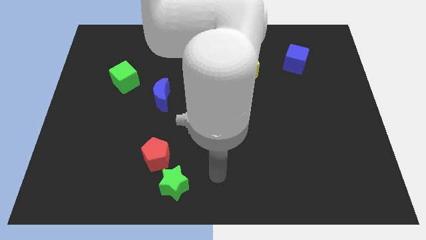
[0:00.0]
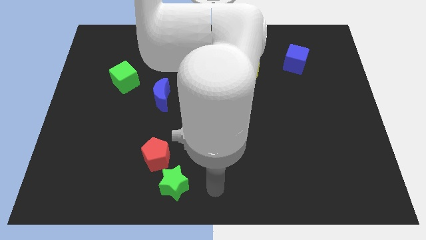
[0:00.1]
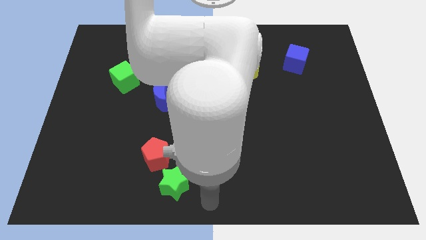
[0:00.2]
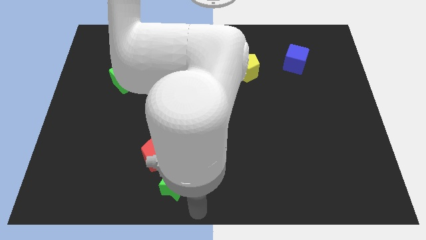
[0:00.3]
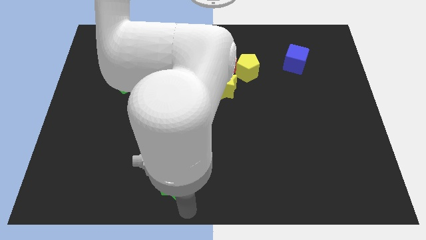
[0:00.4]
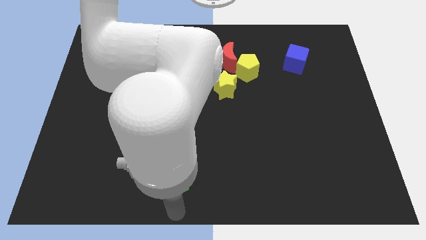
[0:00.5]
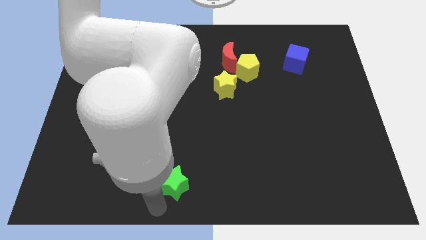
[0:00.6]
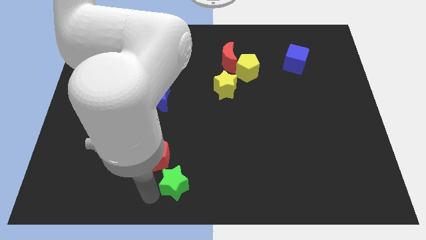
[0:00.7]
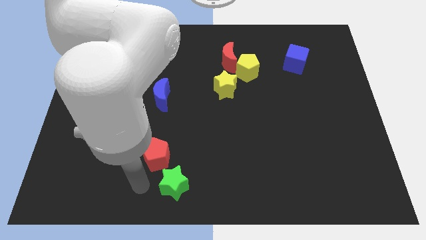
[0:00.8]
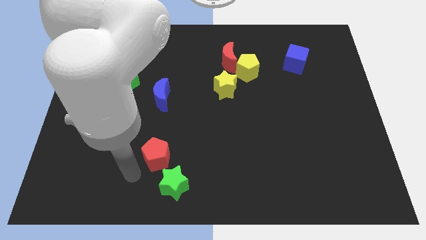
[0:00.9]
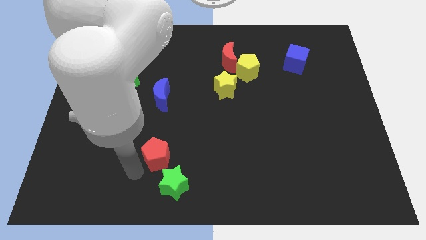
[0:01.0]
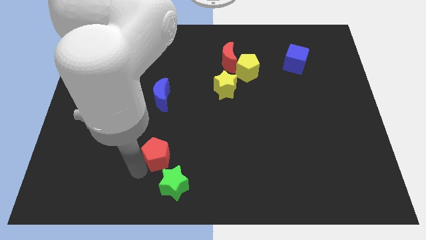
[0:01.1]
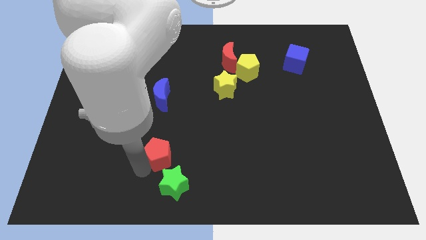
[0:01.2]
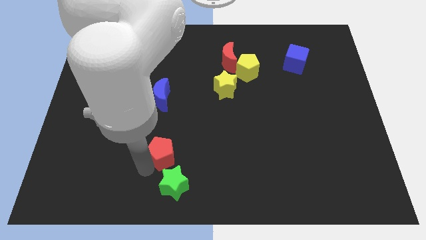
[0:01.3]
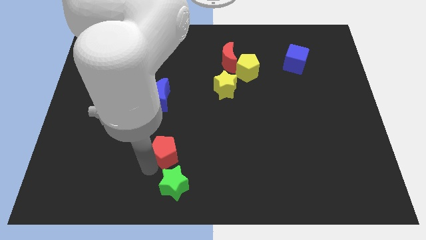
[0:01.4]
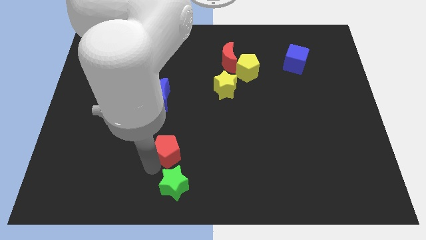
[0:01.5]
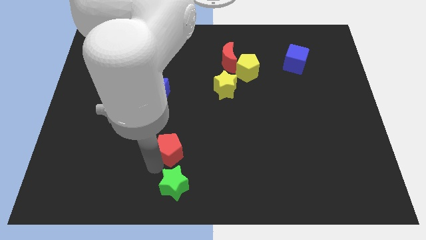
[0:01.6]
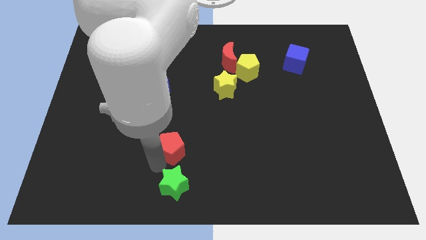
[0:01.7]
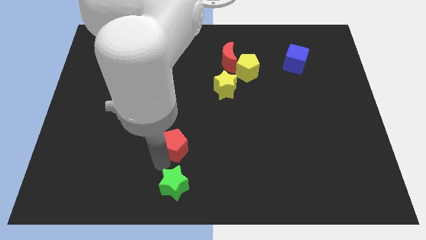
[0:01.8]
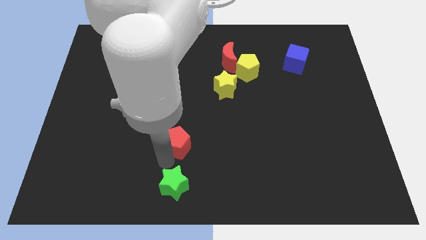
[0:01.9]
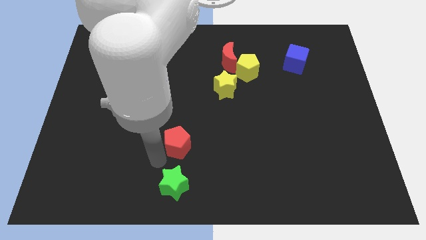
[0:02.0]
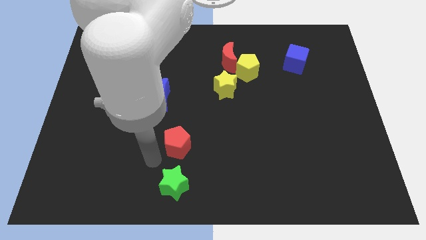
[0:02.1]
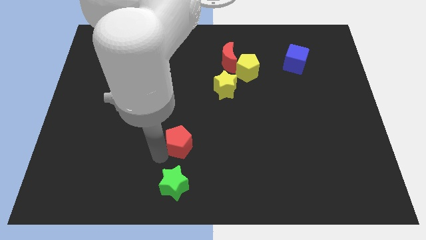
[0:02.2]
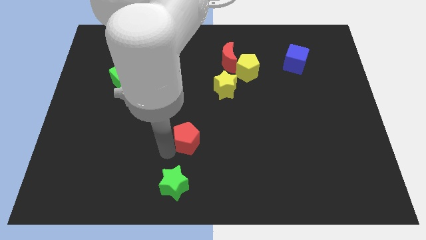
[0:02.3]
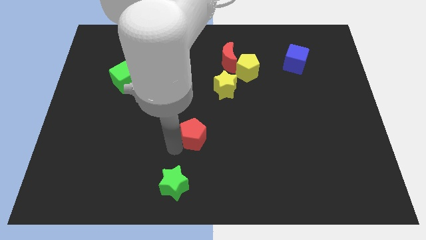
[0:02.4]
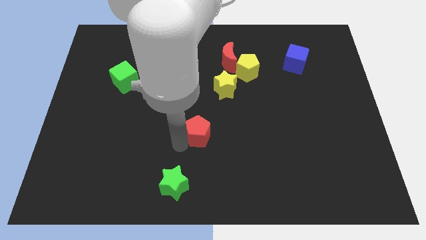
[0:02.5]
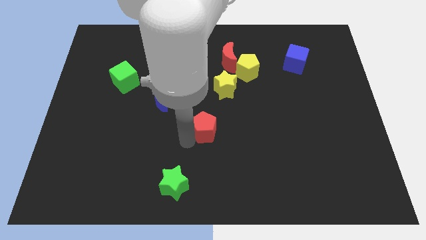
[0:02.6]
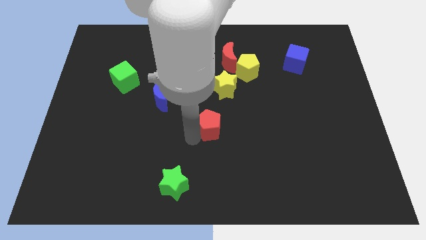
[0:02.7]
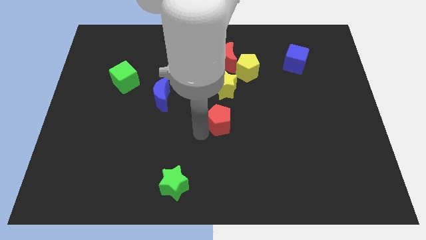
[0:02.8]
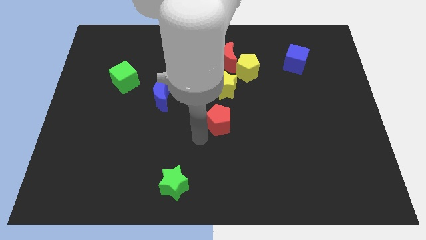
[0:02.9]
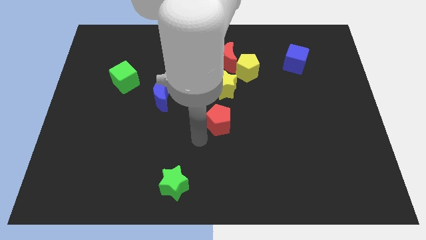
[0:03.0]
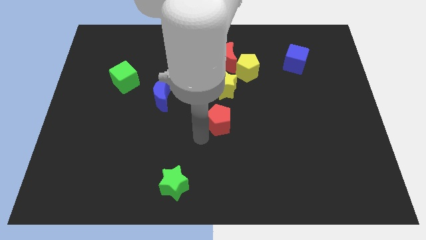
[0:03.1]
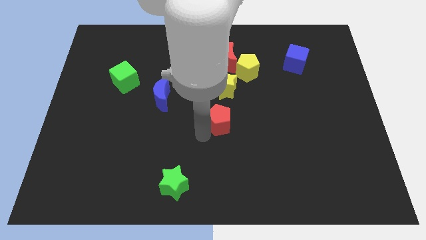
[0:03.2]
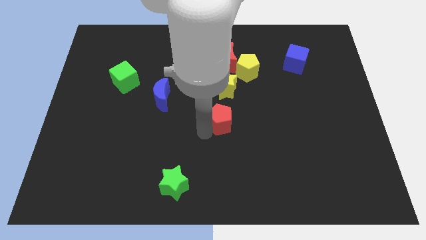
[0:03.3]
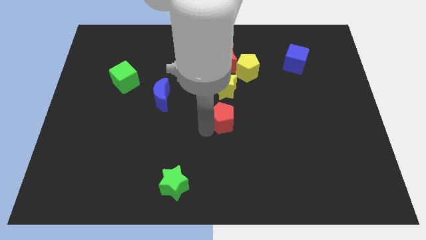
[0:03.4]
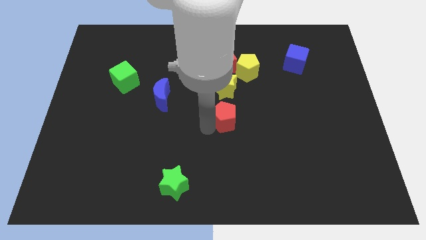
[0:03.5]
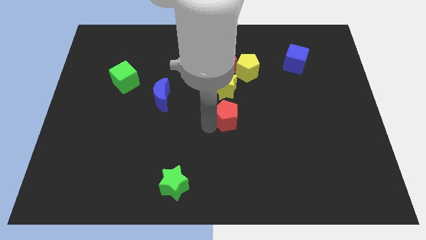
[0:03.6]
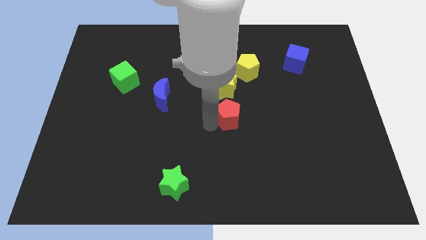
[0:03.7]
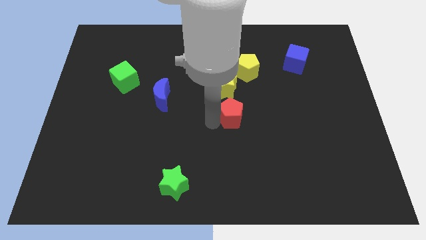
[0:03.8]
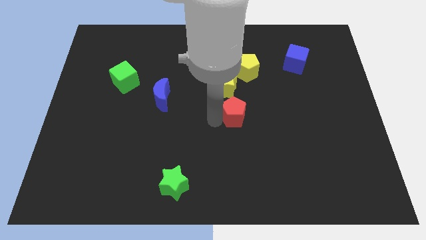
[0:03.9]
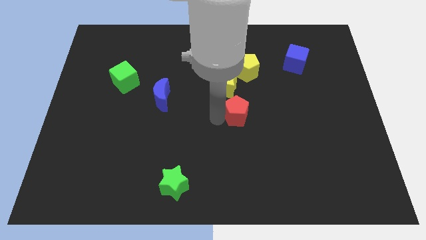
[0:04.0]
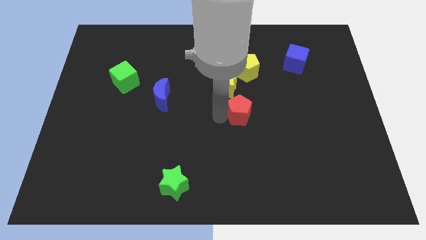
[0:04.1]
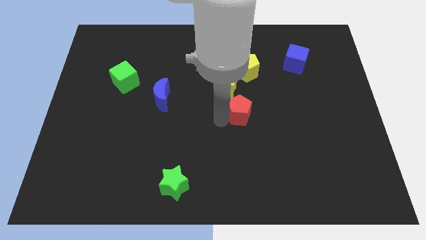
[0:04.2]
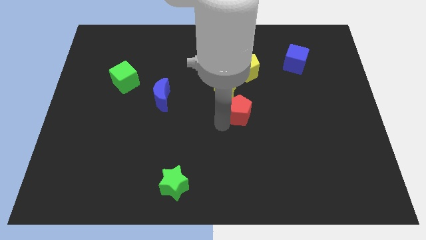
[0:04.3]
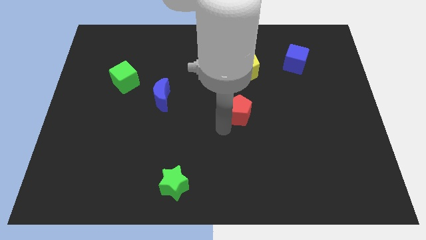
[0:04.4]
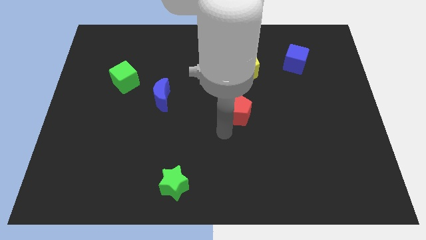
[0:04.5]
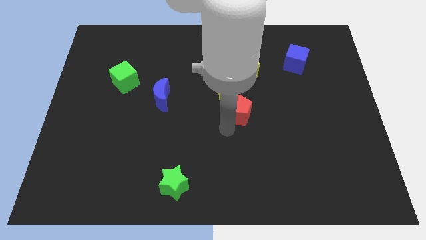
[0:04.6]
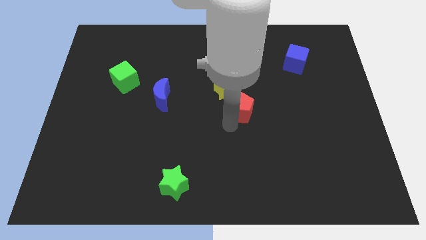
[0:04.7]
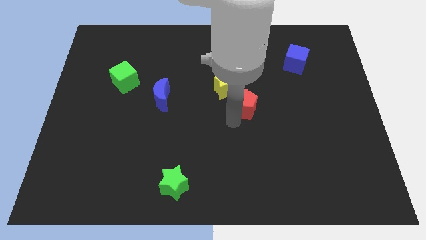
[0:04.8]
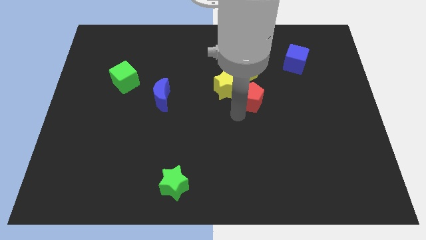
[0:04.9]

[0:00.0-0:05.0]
move the red pentagon right of the yellow star

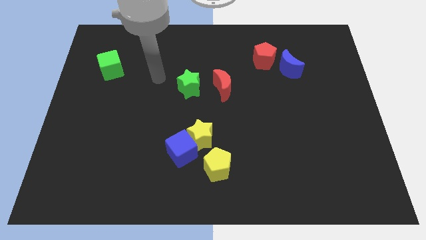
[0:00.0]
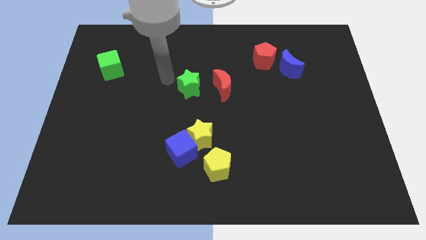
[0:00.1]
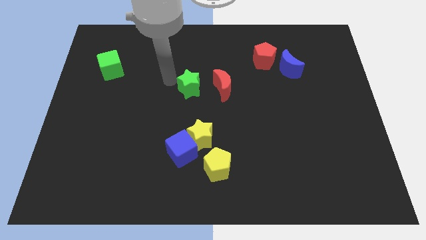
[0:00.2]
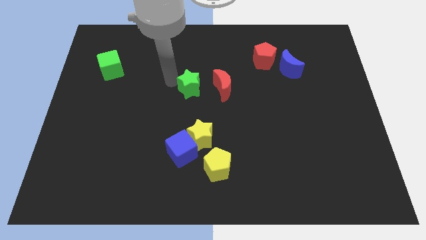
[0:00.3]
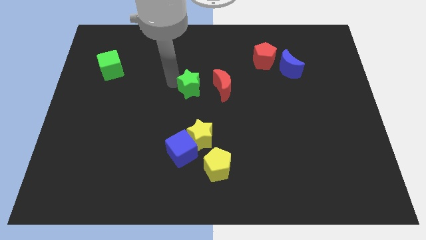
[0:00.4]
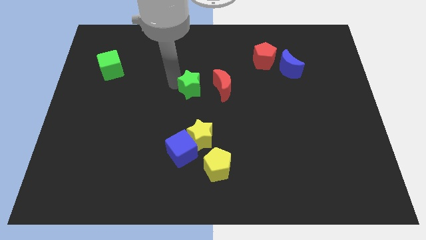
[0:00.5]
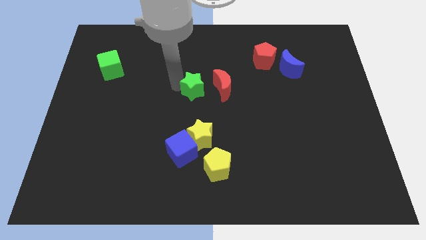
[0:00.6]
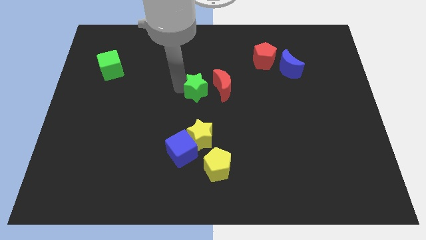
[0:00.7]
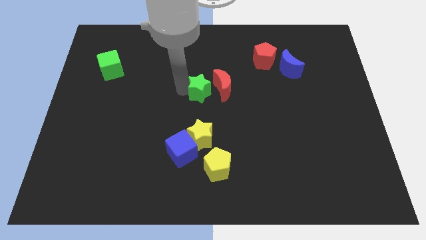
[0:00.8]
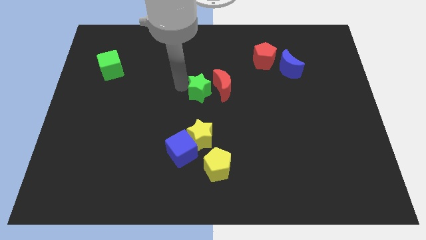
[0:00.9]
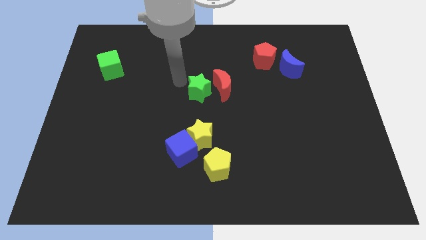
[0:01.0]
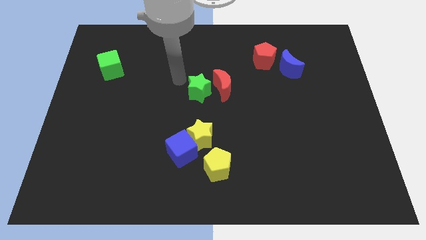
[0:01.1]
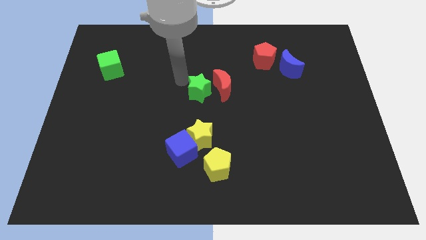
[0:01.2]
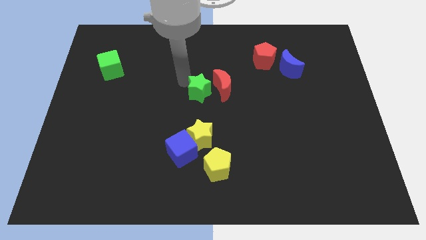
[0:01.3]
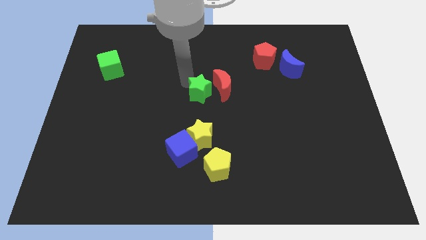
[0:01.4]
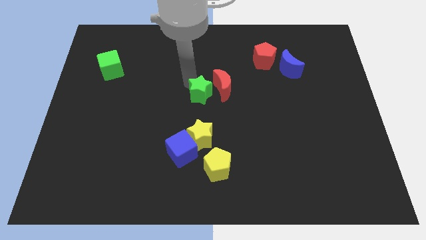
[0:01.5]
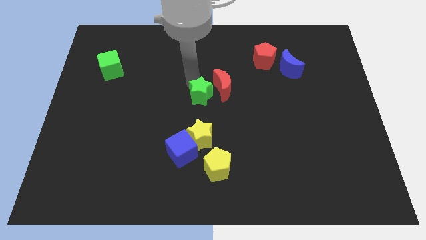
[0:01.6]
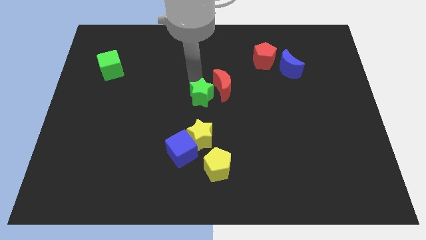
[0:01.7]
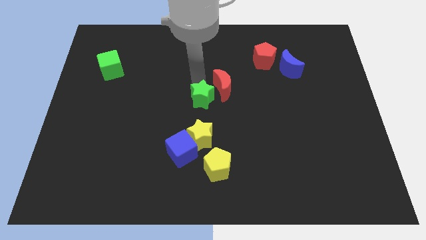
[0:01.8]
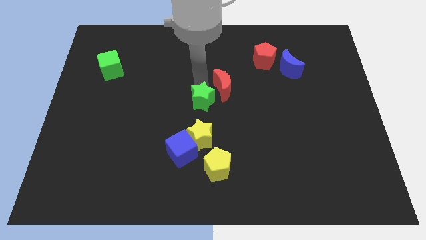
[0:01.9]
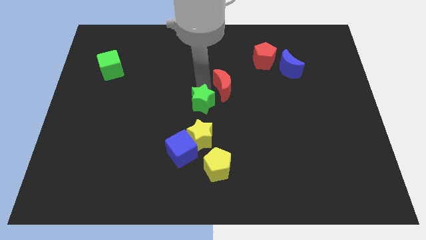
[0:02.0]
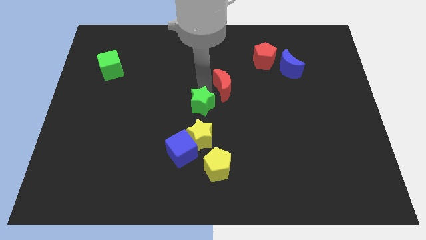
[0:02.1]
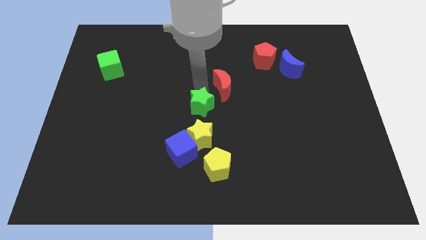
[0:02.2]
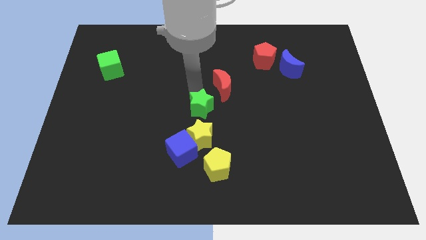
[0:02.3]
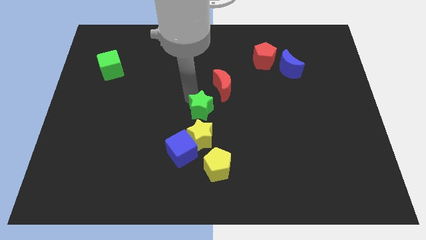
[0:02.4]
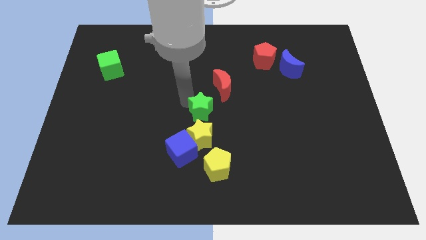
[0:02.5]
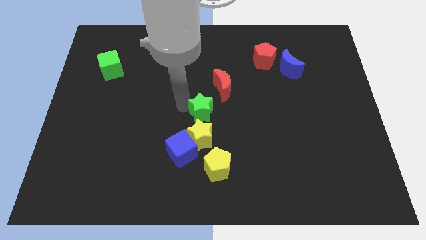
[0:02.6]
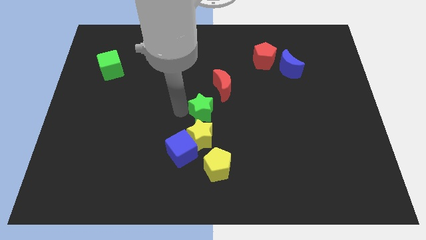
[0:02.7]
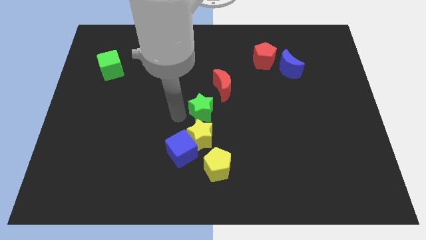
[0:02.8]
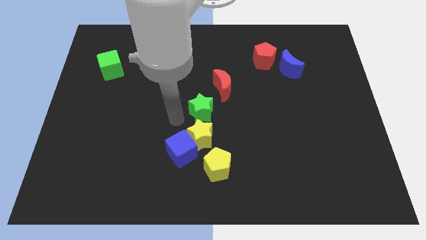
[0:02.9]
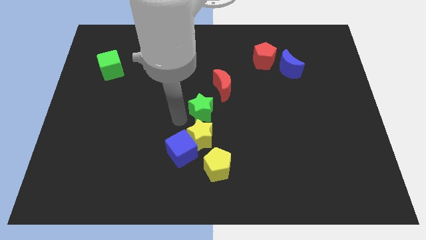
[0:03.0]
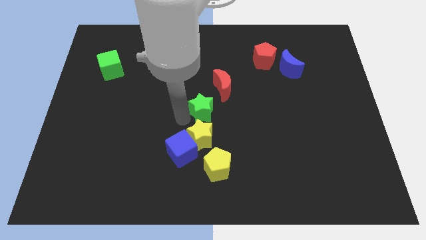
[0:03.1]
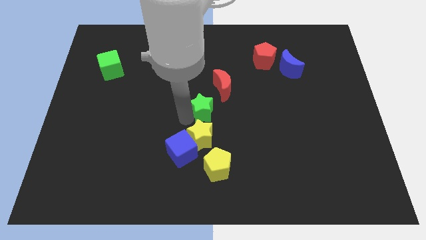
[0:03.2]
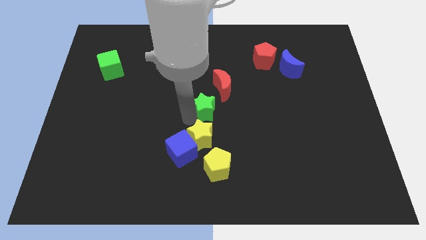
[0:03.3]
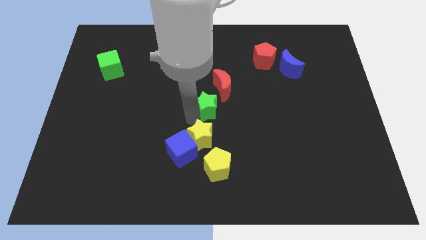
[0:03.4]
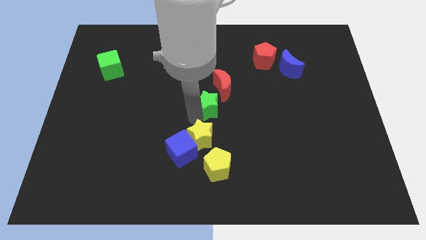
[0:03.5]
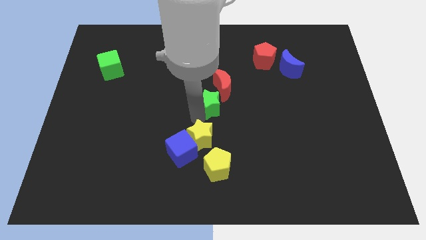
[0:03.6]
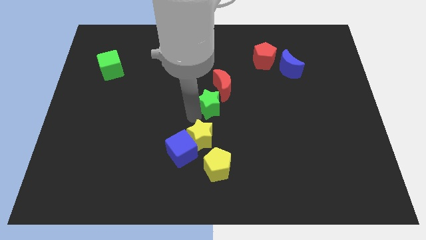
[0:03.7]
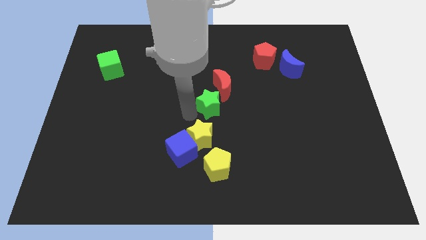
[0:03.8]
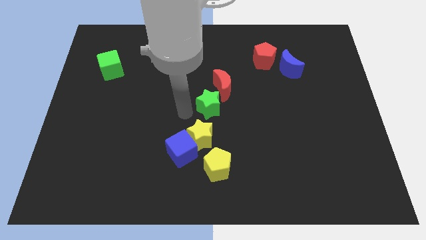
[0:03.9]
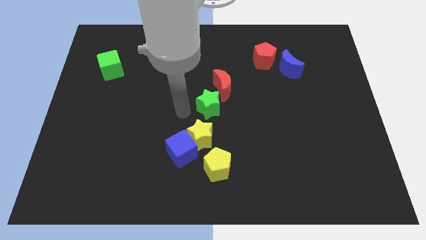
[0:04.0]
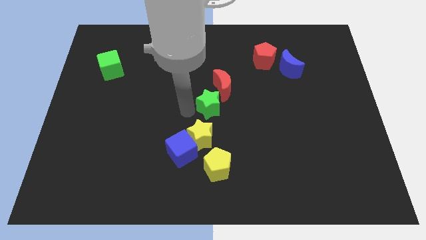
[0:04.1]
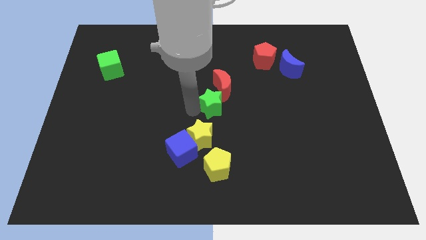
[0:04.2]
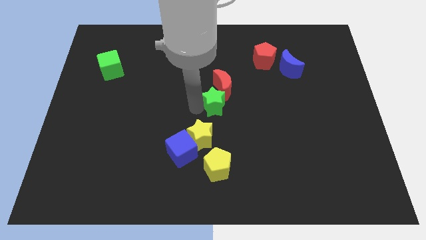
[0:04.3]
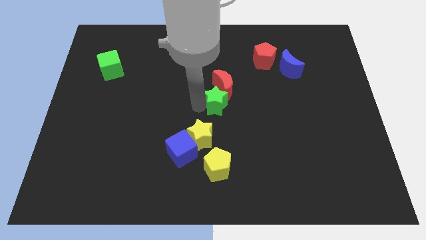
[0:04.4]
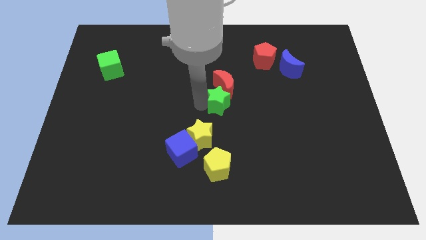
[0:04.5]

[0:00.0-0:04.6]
slide the green star to the bottom right of the red moon
